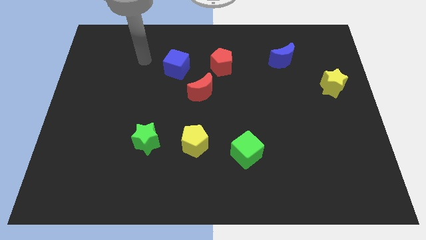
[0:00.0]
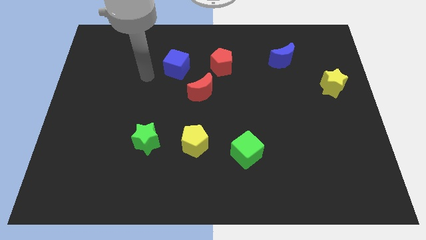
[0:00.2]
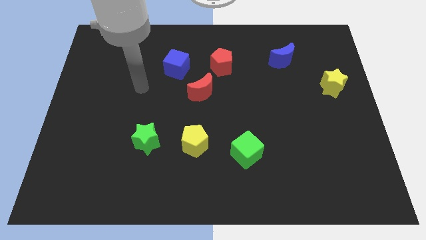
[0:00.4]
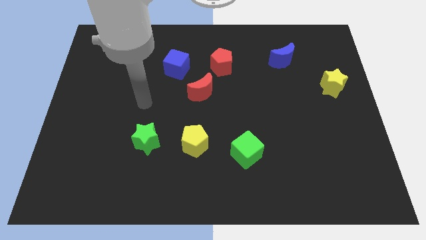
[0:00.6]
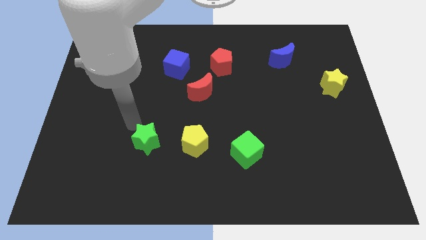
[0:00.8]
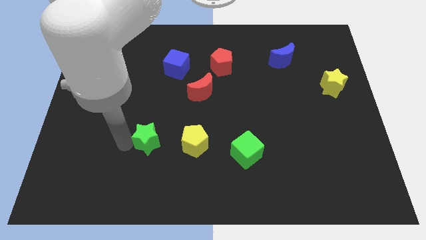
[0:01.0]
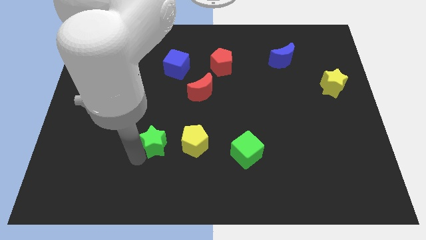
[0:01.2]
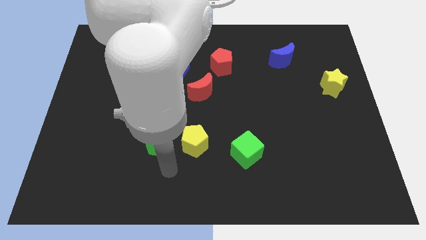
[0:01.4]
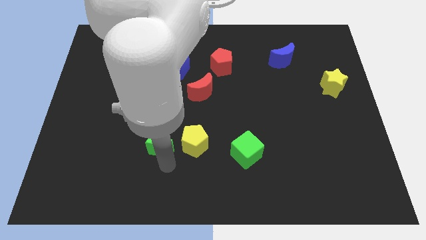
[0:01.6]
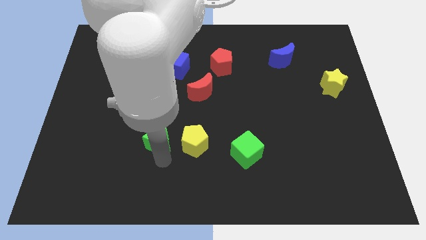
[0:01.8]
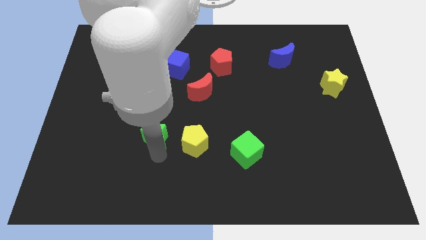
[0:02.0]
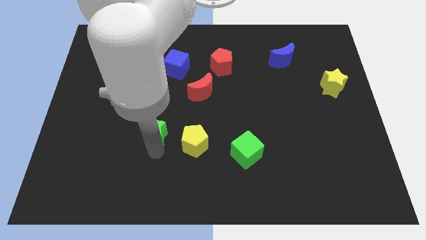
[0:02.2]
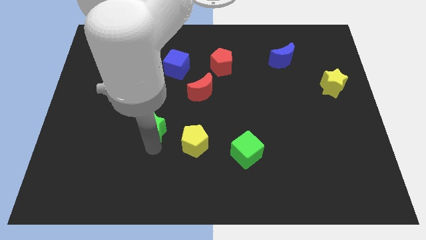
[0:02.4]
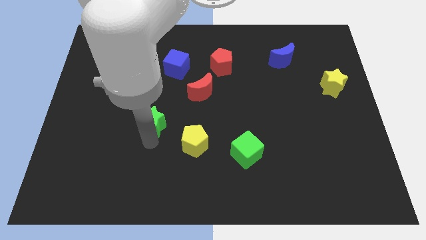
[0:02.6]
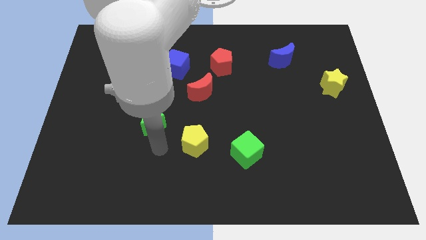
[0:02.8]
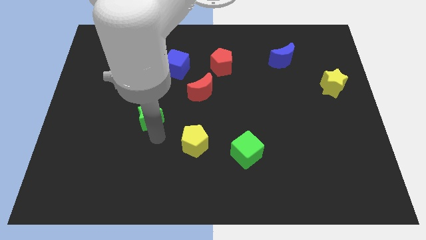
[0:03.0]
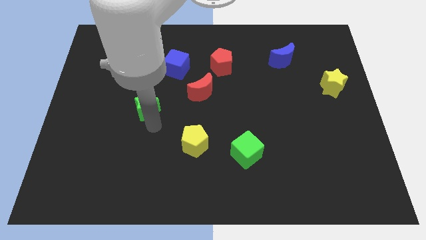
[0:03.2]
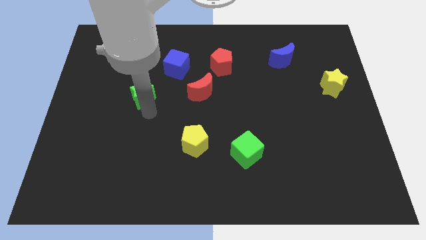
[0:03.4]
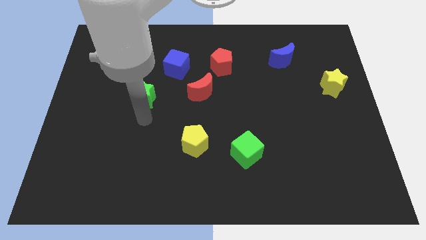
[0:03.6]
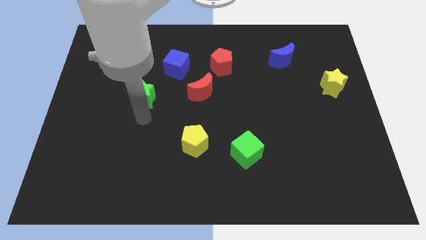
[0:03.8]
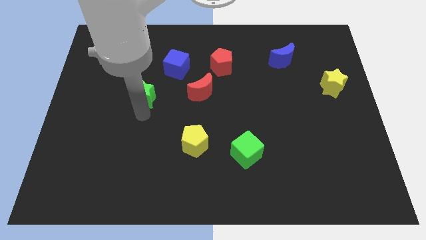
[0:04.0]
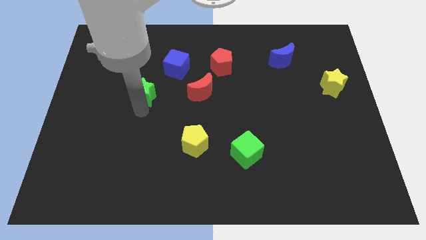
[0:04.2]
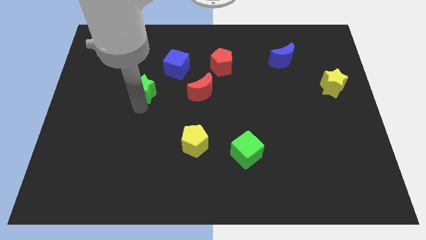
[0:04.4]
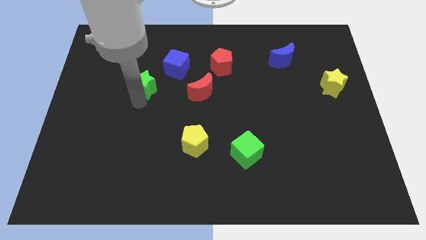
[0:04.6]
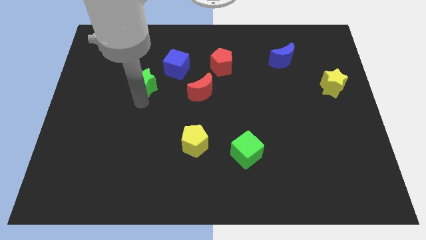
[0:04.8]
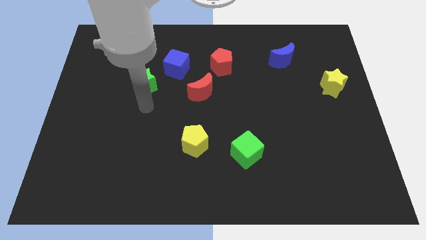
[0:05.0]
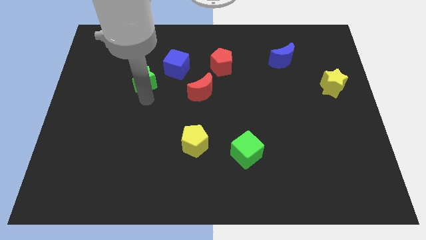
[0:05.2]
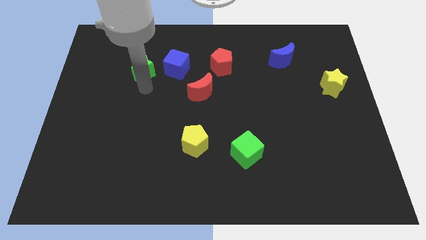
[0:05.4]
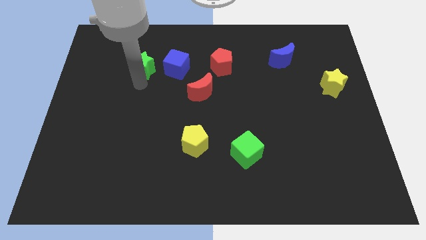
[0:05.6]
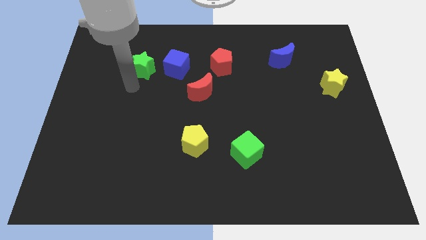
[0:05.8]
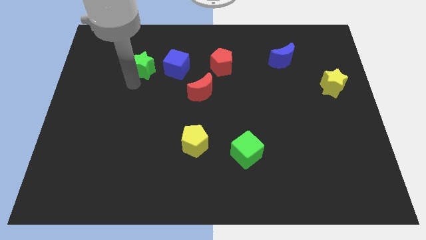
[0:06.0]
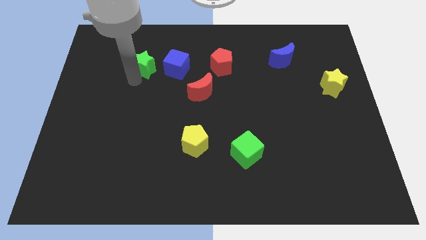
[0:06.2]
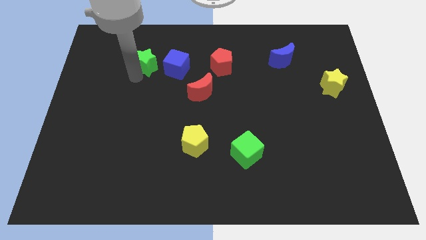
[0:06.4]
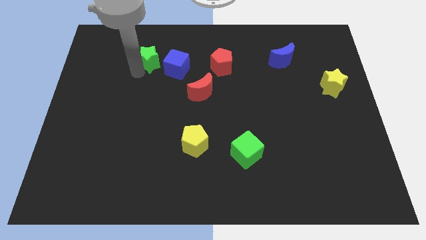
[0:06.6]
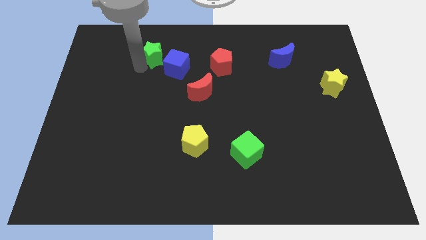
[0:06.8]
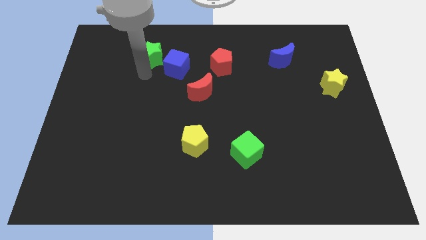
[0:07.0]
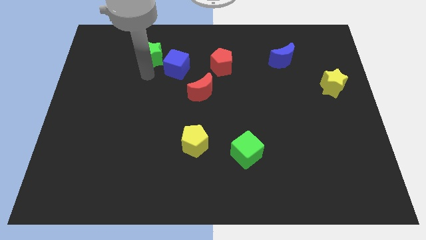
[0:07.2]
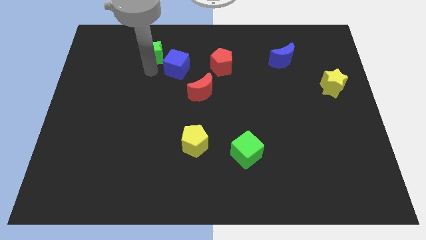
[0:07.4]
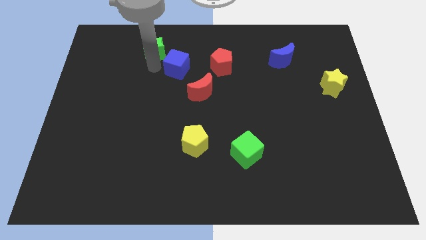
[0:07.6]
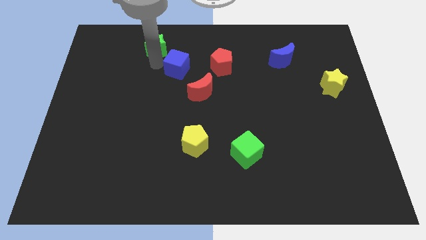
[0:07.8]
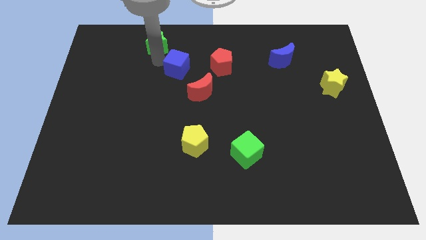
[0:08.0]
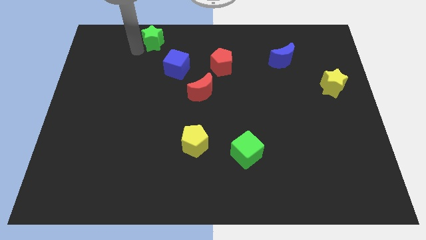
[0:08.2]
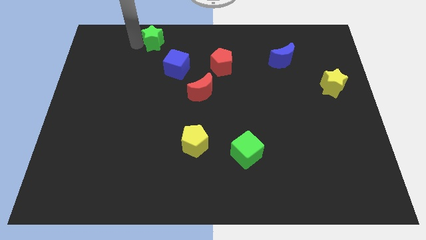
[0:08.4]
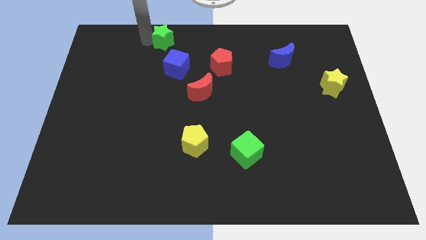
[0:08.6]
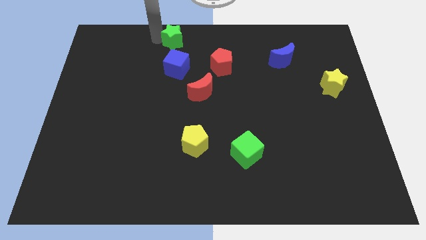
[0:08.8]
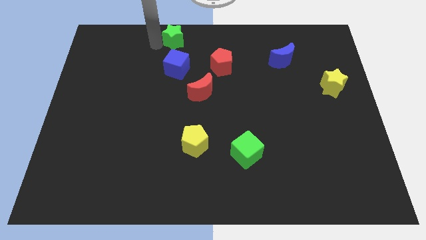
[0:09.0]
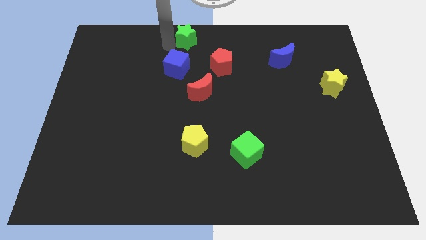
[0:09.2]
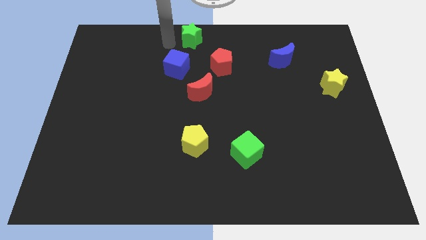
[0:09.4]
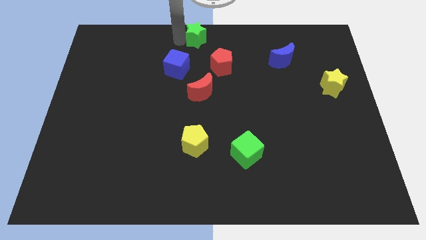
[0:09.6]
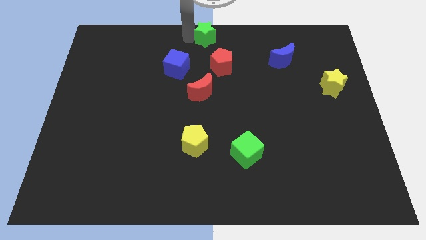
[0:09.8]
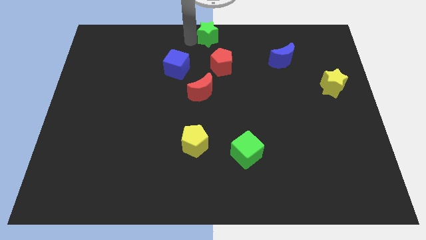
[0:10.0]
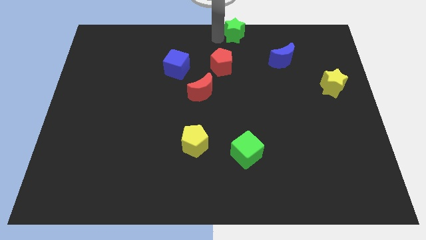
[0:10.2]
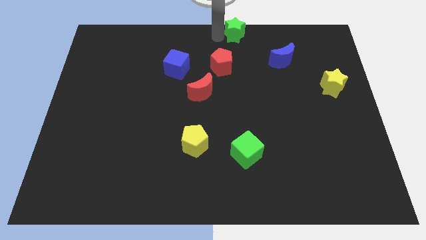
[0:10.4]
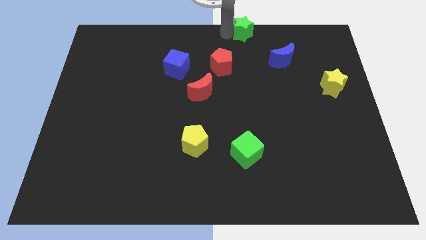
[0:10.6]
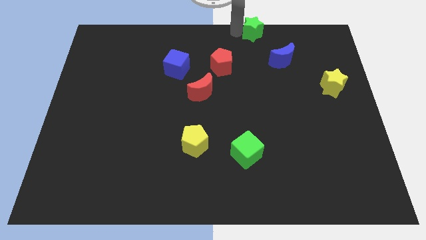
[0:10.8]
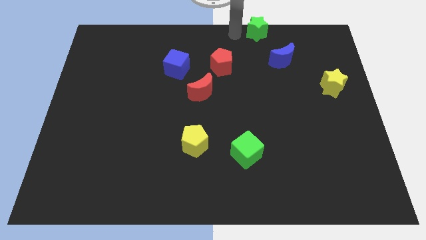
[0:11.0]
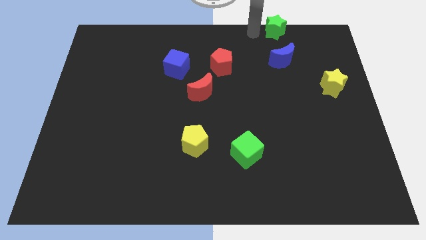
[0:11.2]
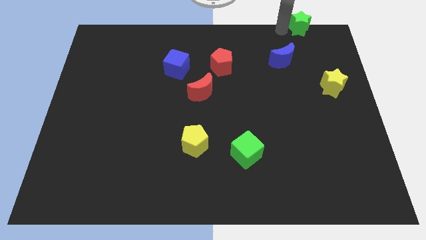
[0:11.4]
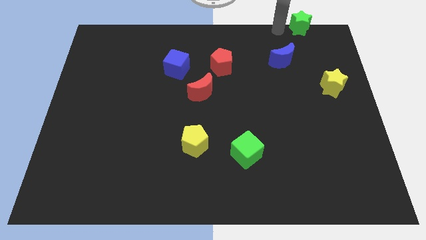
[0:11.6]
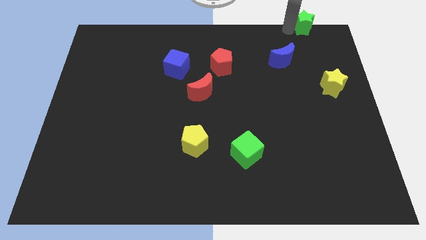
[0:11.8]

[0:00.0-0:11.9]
move the green star to the upper right corner

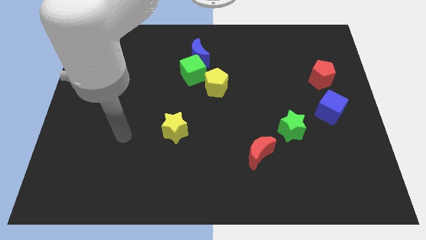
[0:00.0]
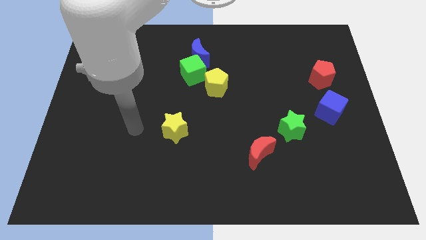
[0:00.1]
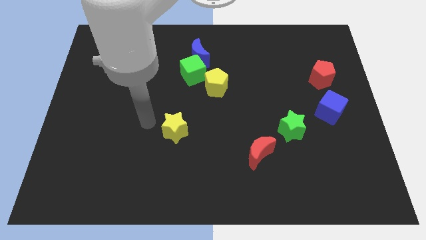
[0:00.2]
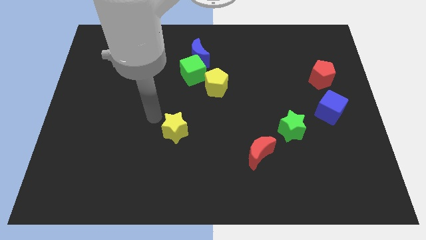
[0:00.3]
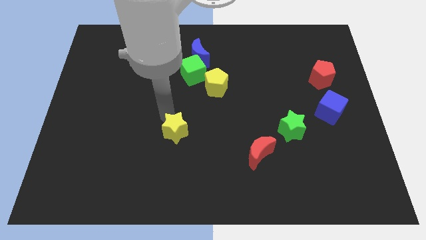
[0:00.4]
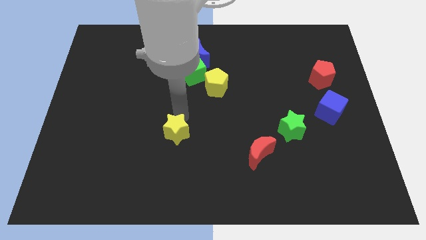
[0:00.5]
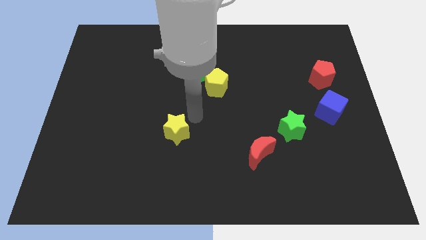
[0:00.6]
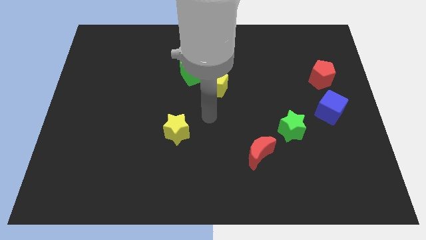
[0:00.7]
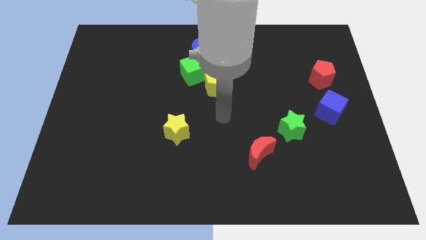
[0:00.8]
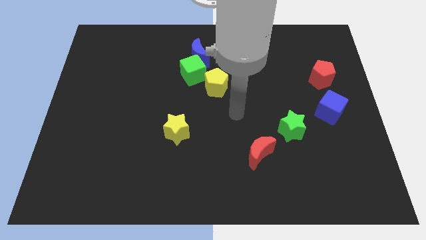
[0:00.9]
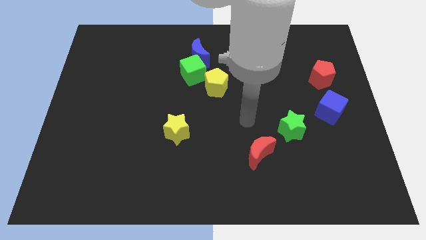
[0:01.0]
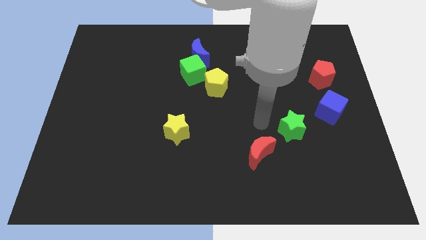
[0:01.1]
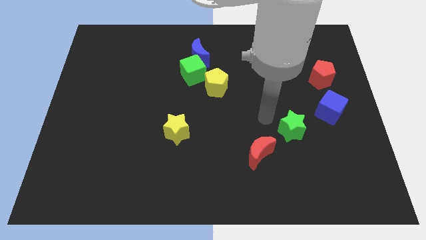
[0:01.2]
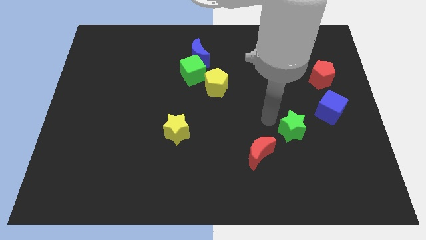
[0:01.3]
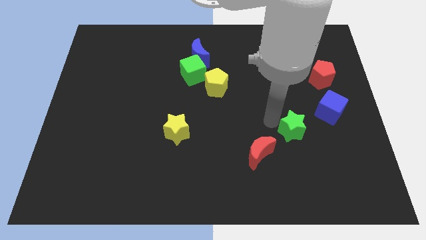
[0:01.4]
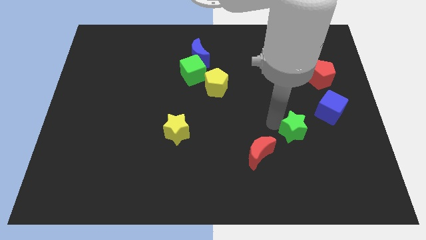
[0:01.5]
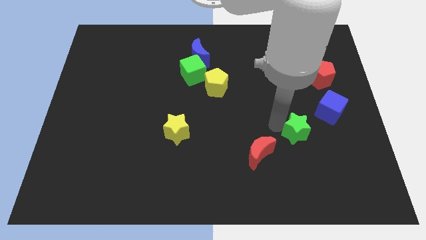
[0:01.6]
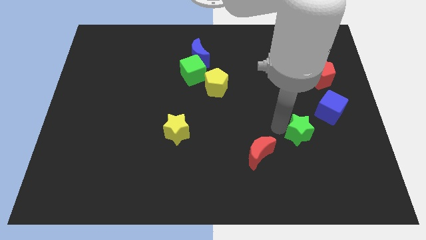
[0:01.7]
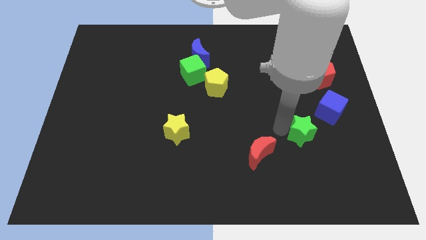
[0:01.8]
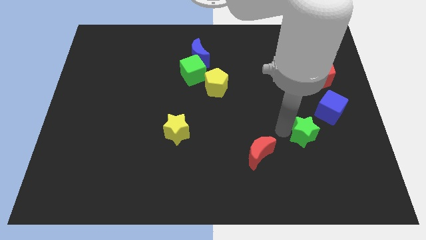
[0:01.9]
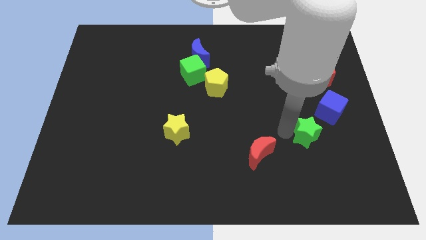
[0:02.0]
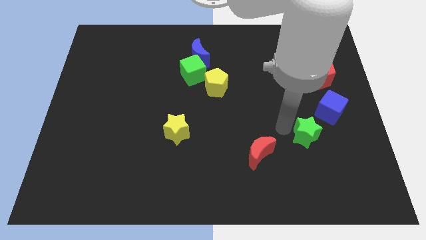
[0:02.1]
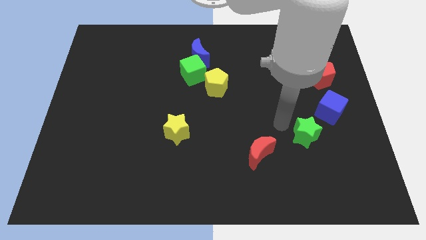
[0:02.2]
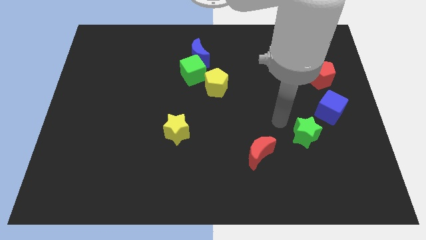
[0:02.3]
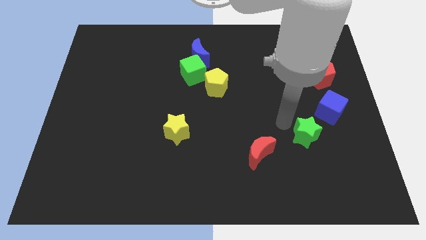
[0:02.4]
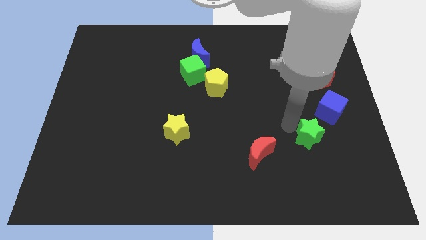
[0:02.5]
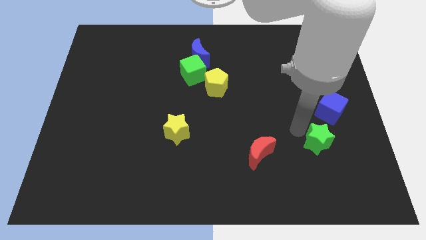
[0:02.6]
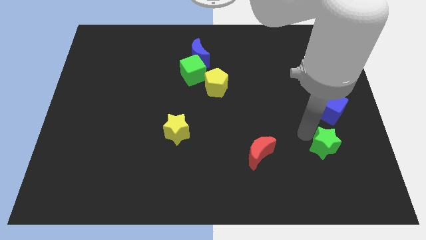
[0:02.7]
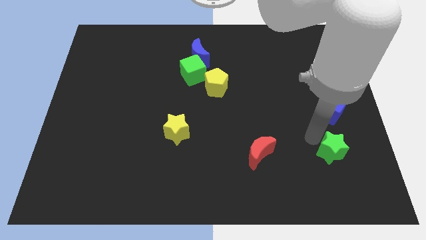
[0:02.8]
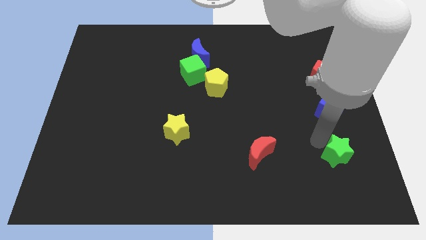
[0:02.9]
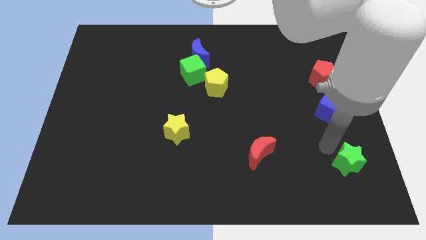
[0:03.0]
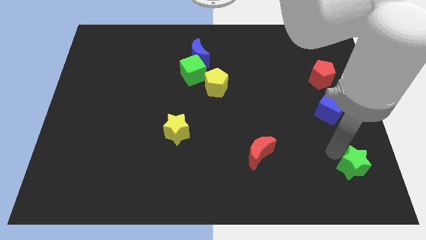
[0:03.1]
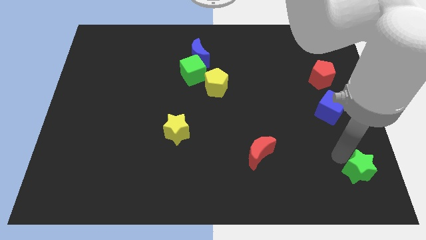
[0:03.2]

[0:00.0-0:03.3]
slide the green star to the bottom right of the board
